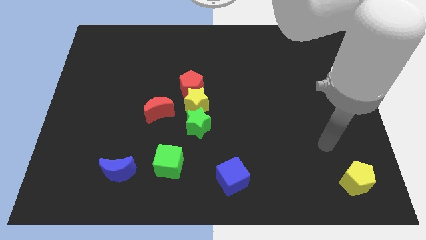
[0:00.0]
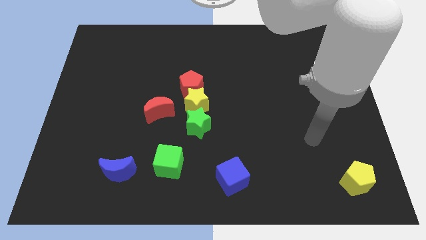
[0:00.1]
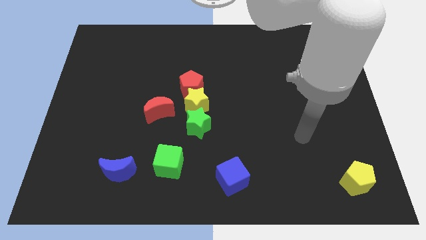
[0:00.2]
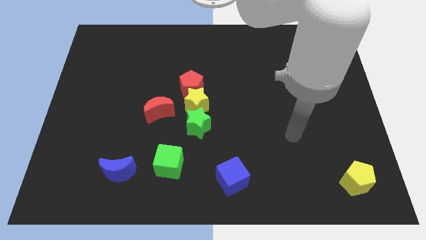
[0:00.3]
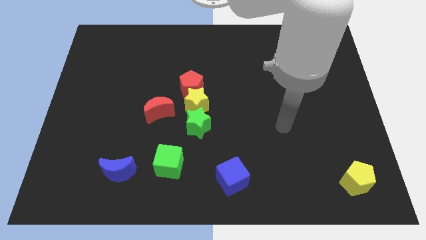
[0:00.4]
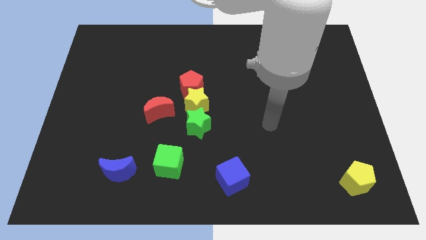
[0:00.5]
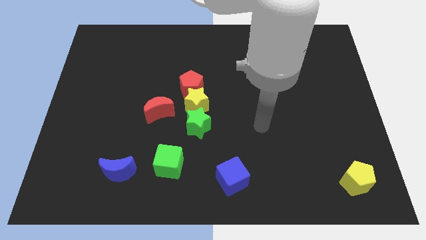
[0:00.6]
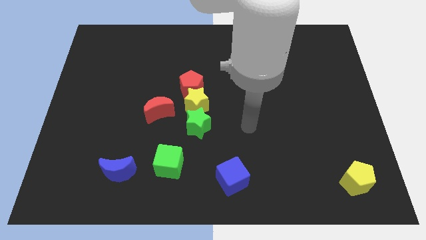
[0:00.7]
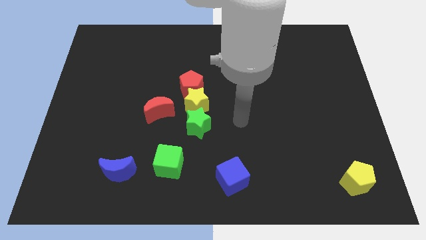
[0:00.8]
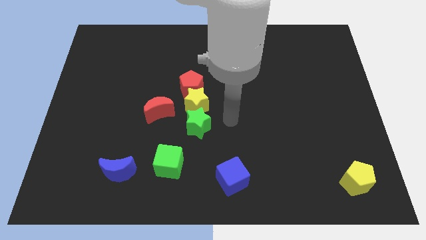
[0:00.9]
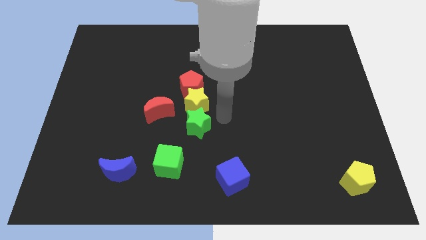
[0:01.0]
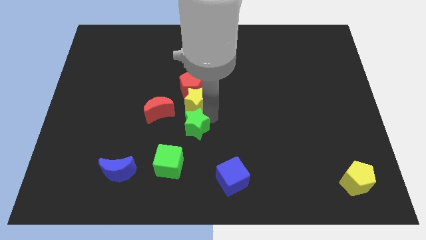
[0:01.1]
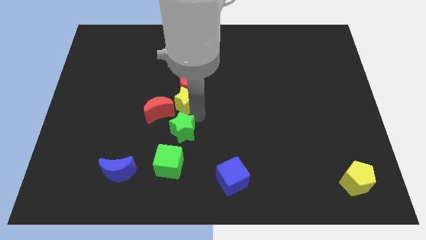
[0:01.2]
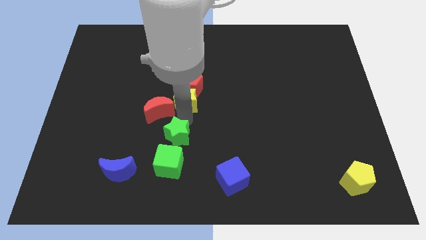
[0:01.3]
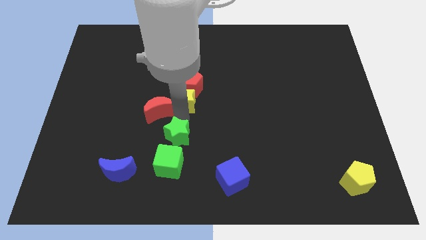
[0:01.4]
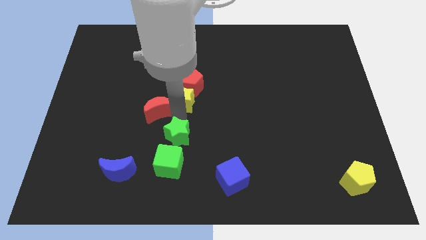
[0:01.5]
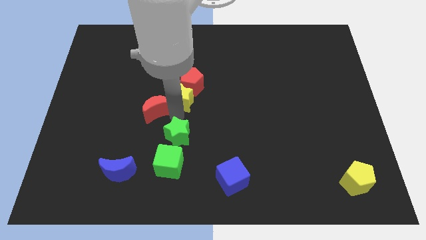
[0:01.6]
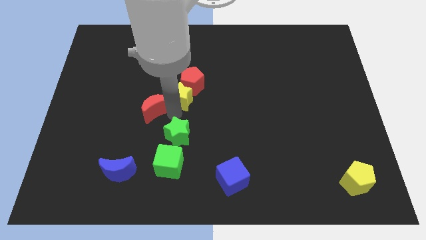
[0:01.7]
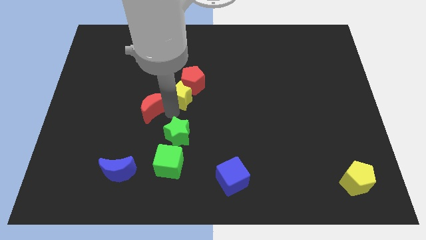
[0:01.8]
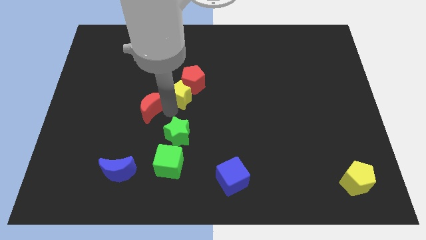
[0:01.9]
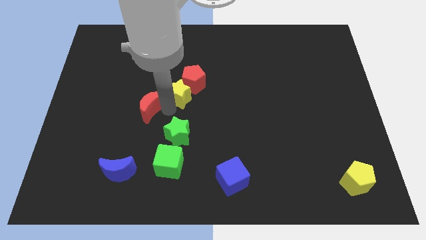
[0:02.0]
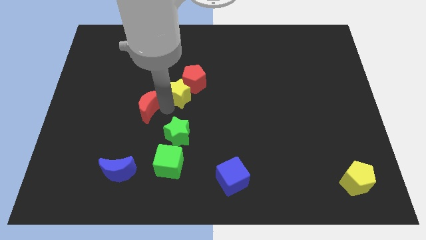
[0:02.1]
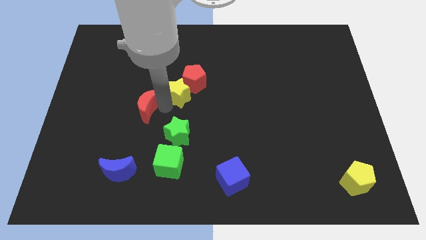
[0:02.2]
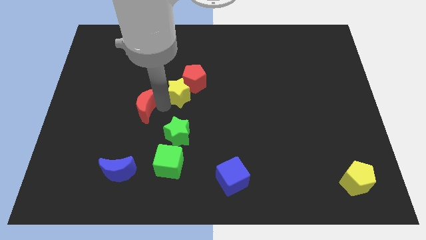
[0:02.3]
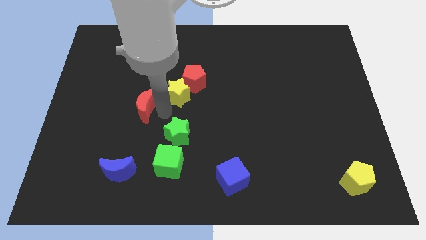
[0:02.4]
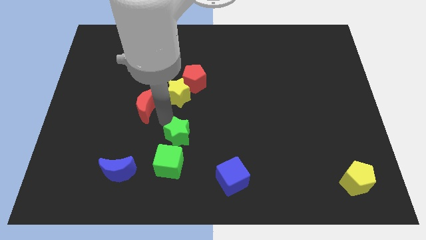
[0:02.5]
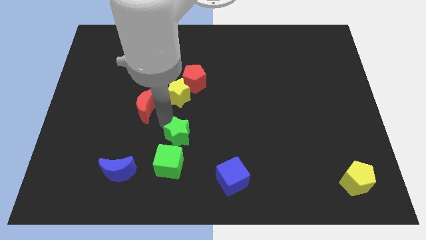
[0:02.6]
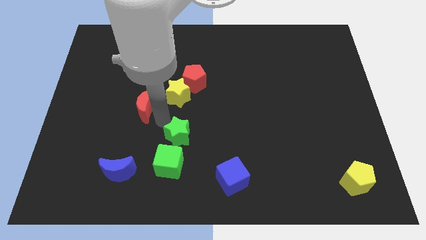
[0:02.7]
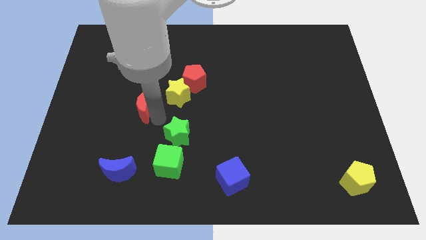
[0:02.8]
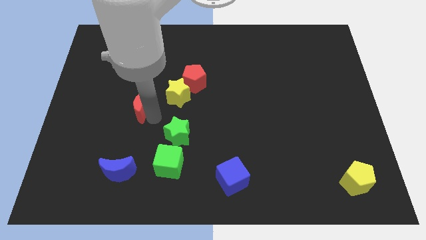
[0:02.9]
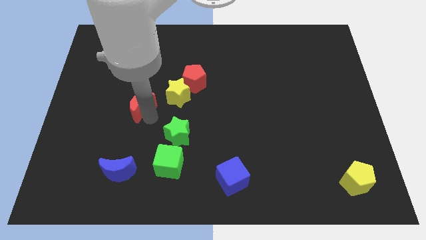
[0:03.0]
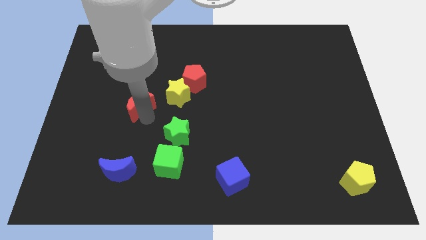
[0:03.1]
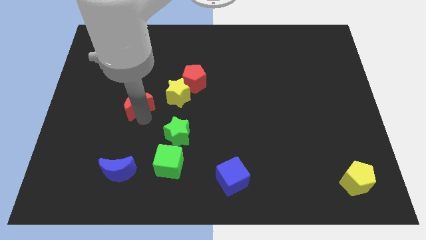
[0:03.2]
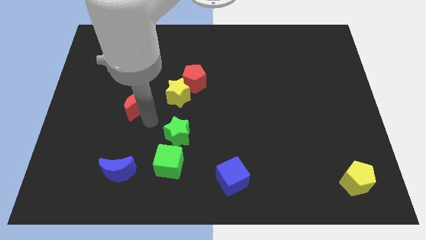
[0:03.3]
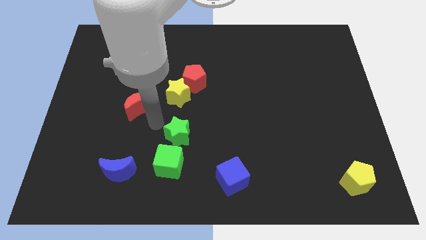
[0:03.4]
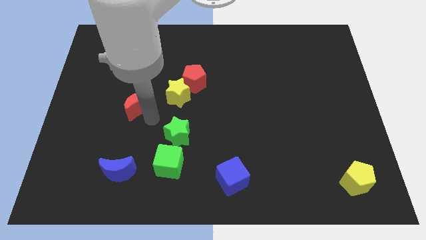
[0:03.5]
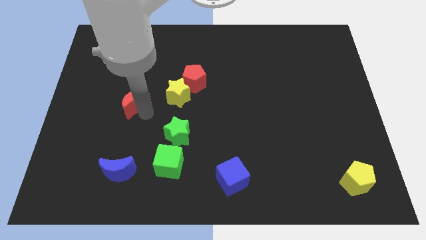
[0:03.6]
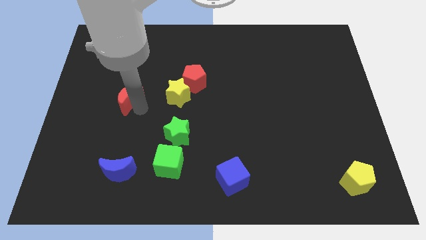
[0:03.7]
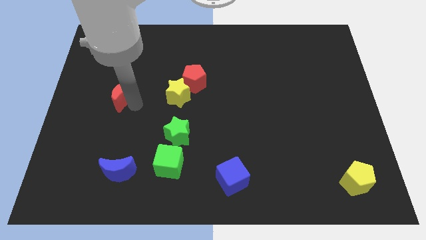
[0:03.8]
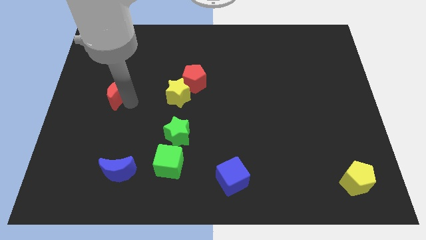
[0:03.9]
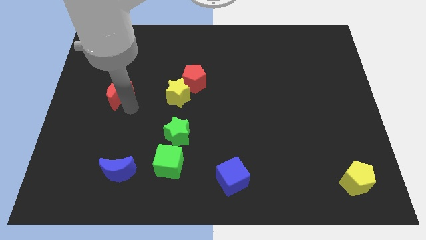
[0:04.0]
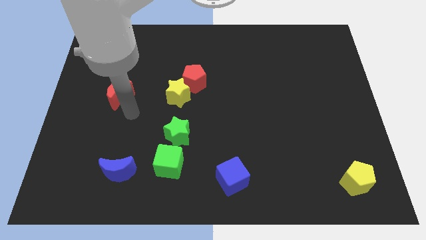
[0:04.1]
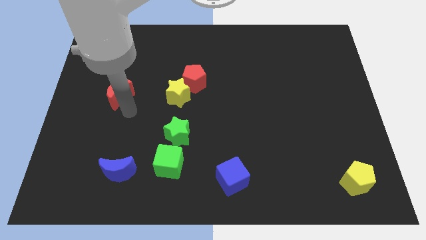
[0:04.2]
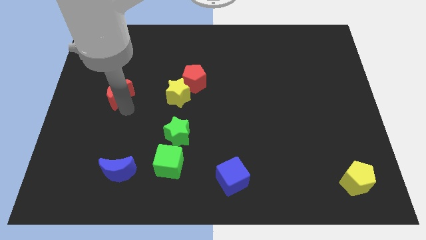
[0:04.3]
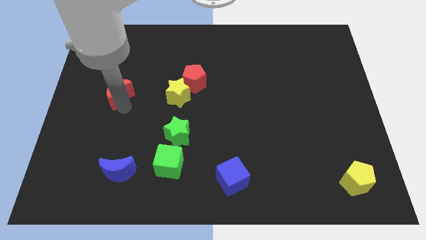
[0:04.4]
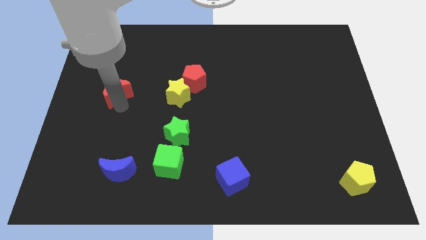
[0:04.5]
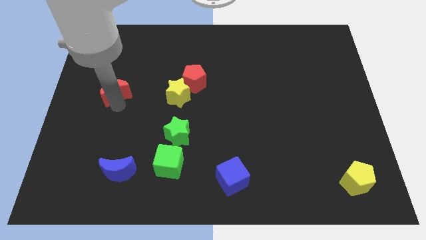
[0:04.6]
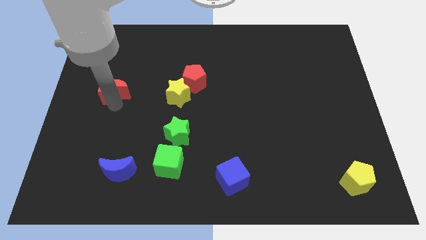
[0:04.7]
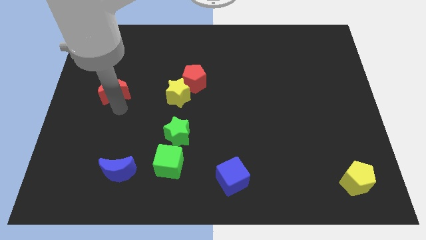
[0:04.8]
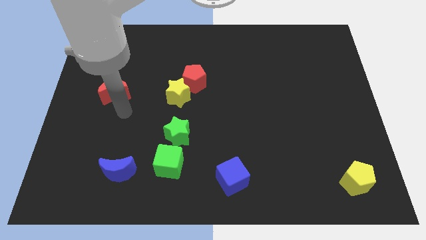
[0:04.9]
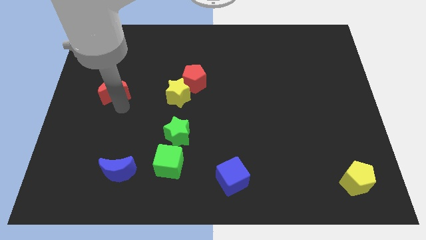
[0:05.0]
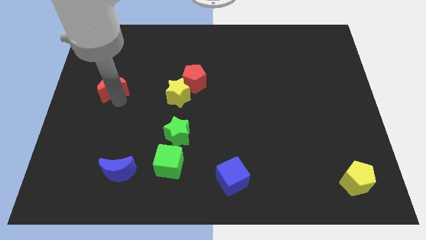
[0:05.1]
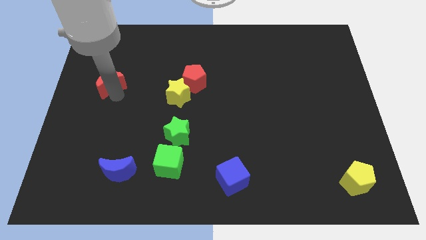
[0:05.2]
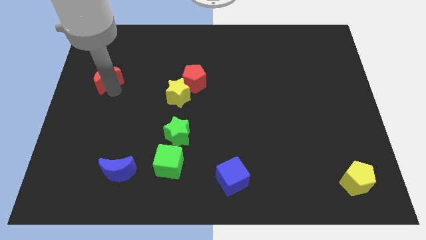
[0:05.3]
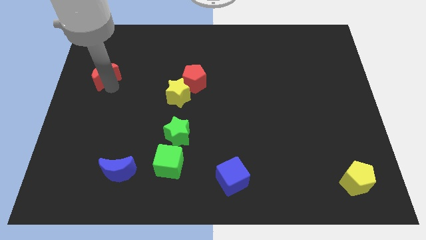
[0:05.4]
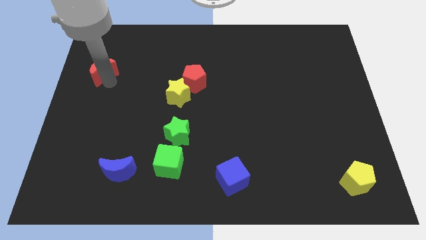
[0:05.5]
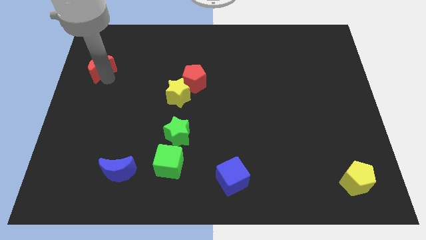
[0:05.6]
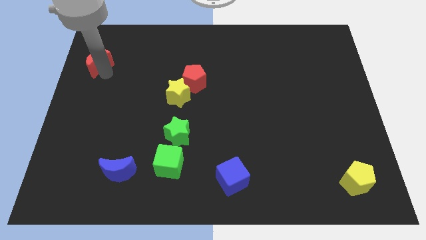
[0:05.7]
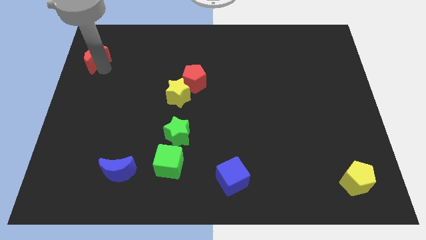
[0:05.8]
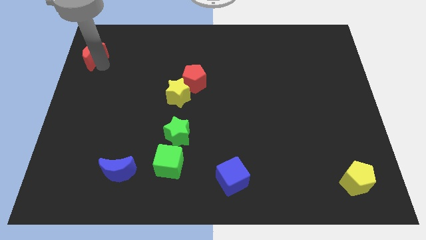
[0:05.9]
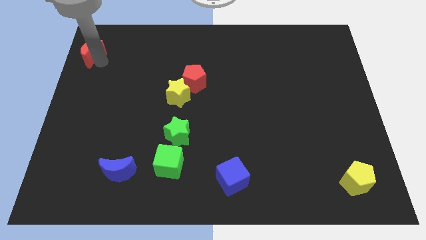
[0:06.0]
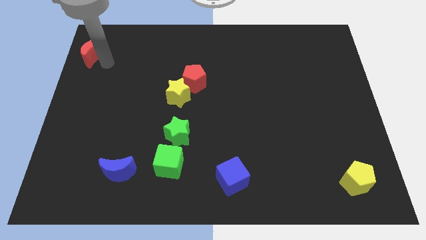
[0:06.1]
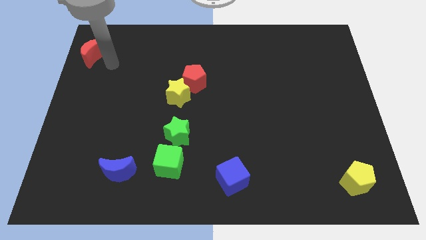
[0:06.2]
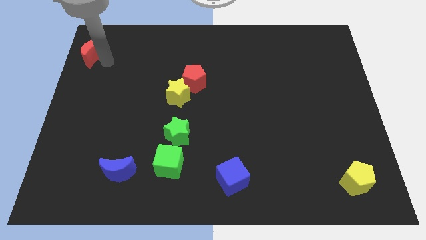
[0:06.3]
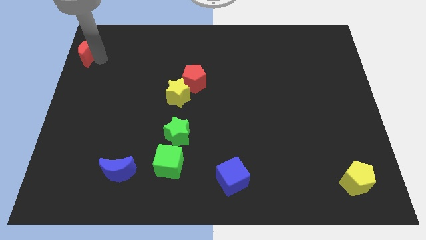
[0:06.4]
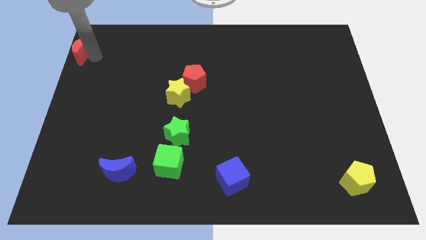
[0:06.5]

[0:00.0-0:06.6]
move the red moon to the upper left corner
